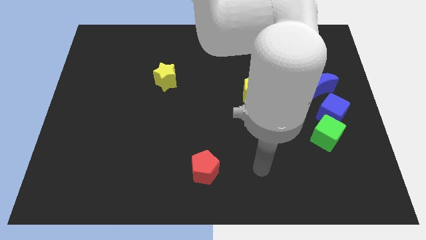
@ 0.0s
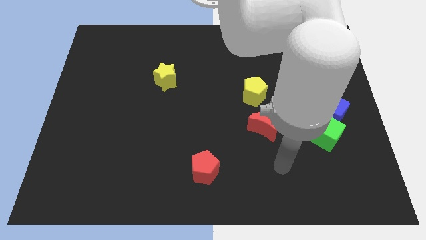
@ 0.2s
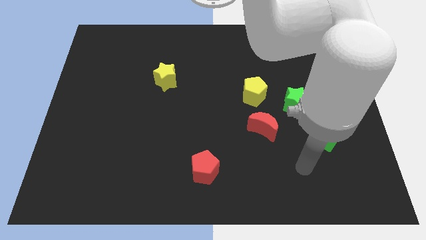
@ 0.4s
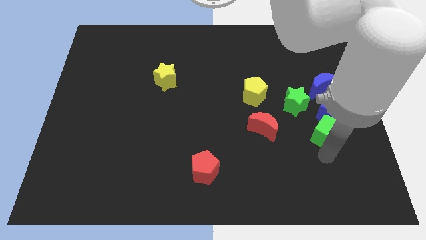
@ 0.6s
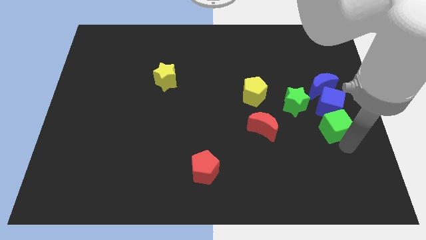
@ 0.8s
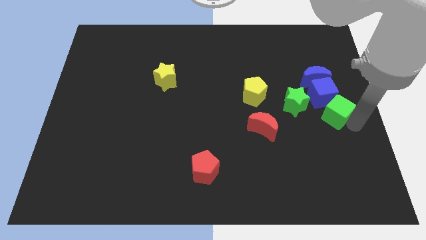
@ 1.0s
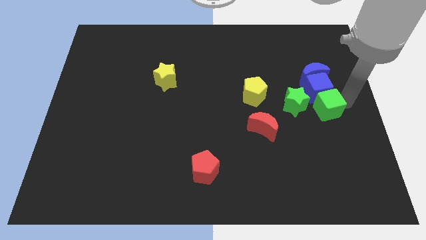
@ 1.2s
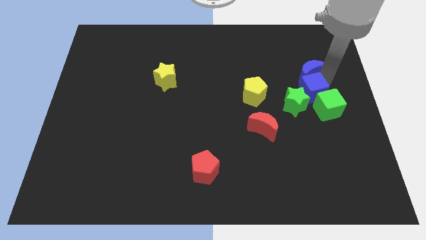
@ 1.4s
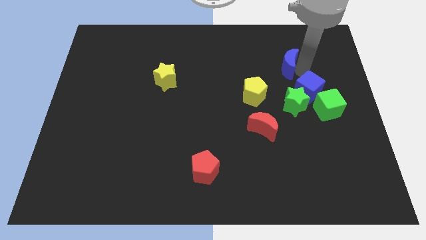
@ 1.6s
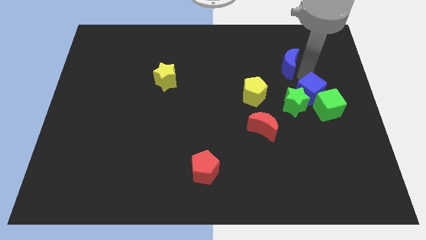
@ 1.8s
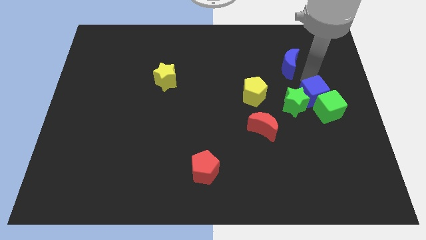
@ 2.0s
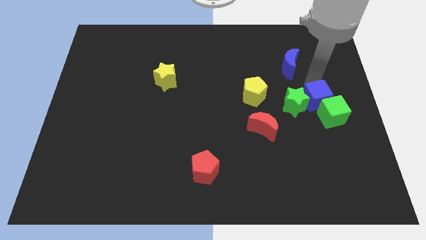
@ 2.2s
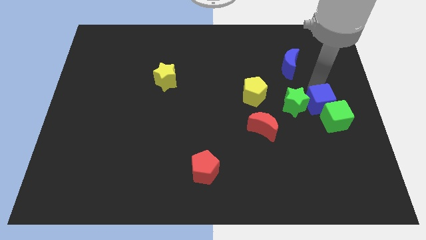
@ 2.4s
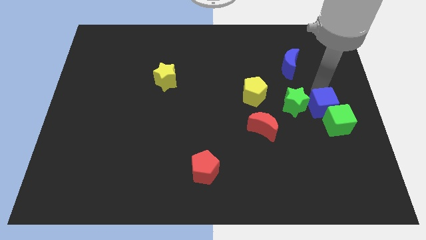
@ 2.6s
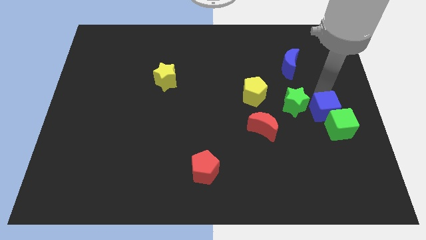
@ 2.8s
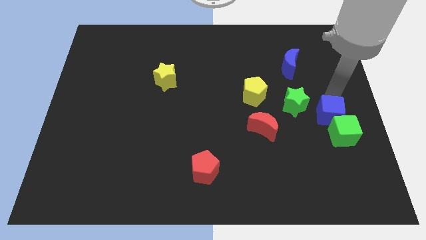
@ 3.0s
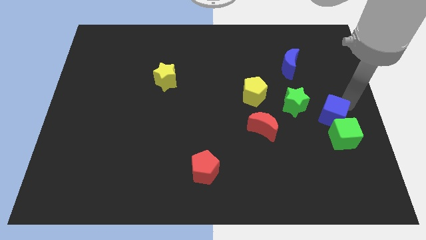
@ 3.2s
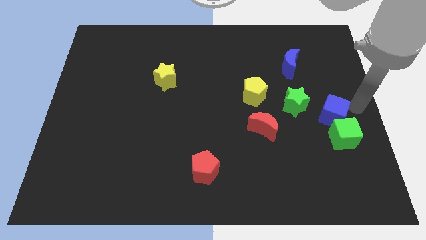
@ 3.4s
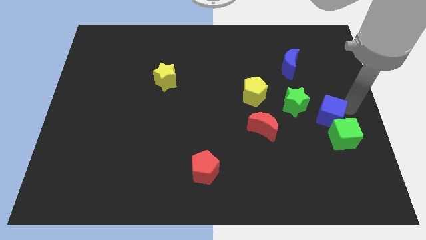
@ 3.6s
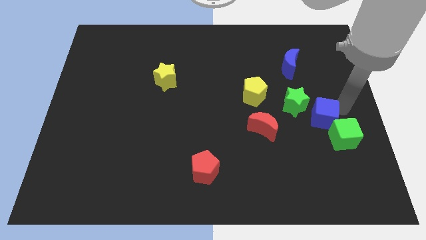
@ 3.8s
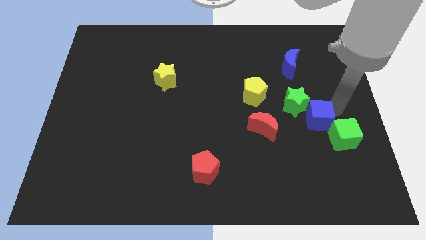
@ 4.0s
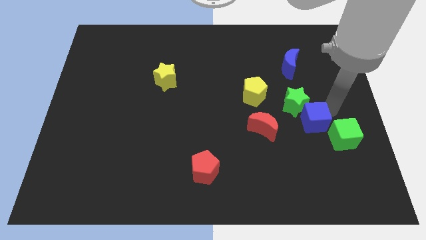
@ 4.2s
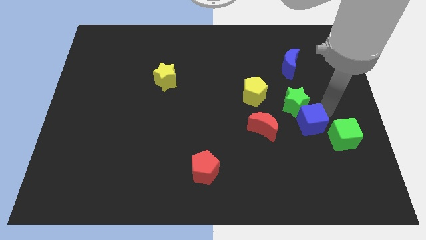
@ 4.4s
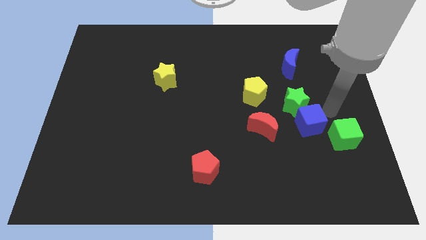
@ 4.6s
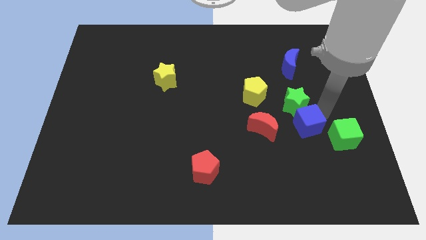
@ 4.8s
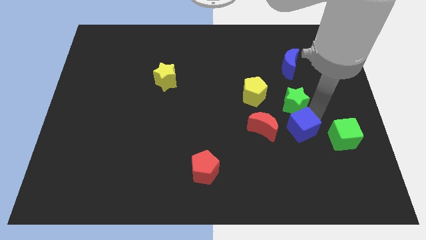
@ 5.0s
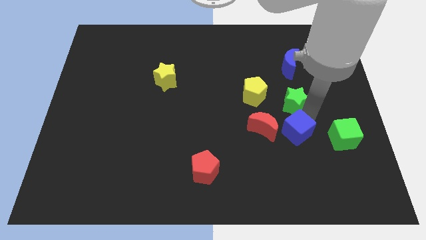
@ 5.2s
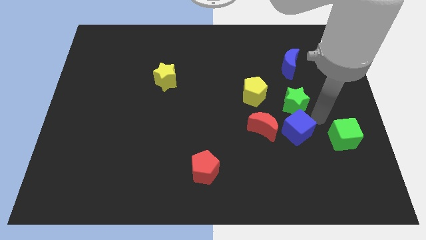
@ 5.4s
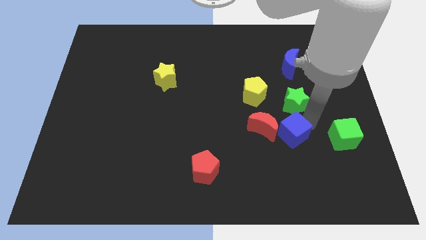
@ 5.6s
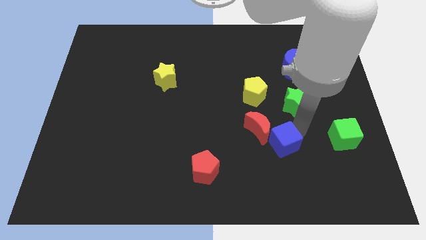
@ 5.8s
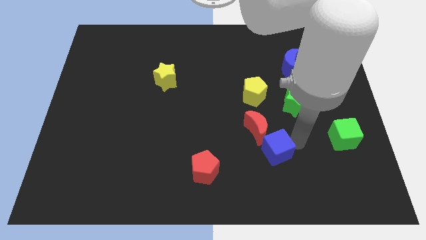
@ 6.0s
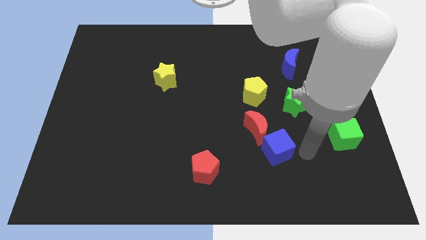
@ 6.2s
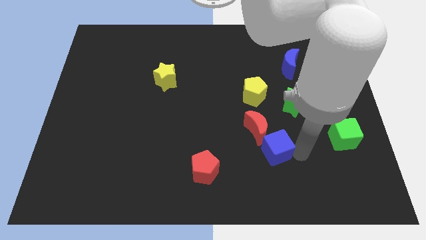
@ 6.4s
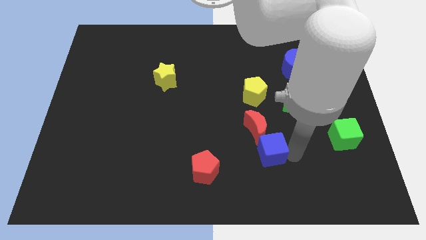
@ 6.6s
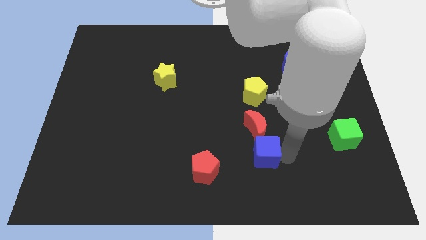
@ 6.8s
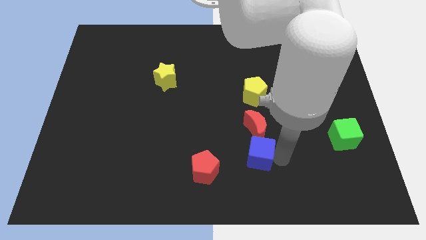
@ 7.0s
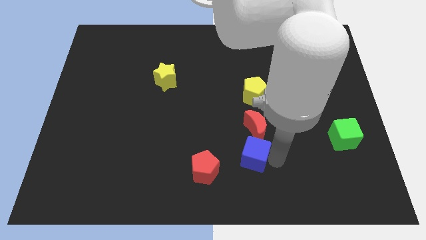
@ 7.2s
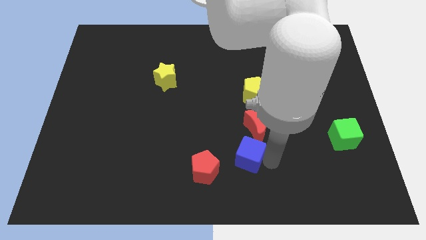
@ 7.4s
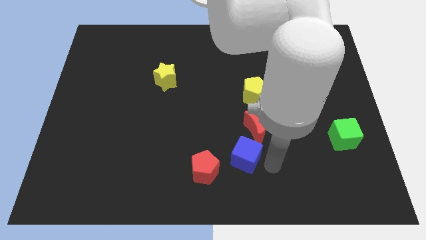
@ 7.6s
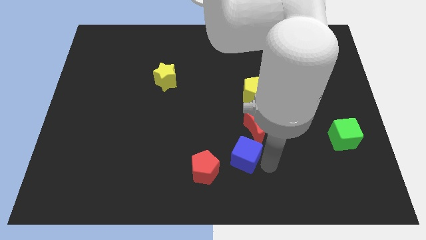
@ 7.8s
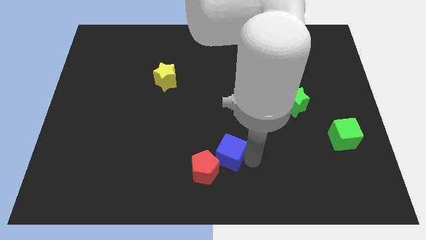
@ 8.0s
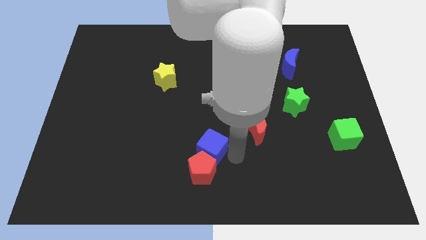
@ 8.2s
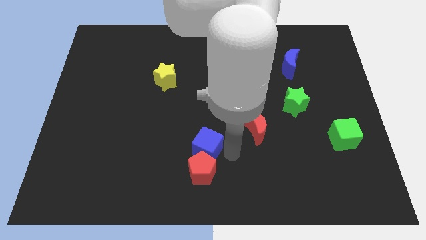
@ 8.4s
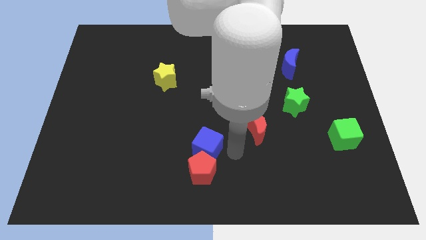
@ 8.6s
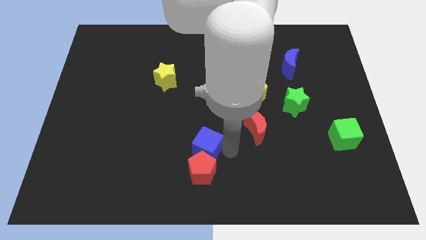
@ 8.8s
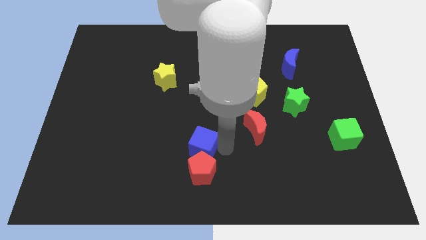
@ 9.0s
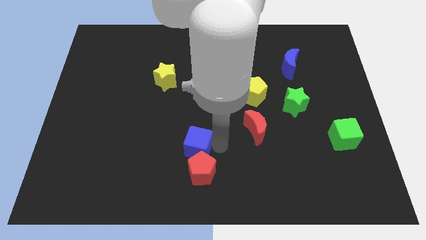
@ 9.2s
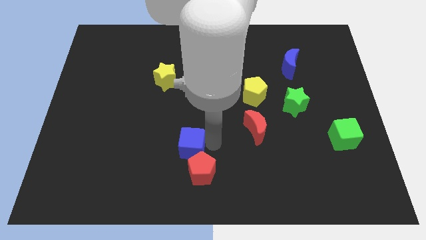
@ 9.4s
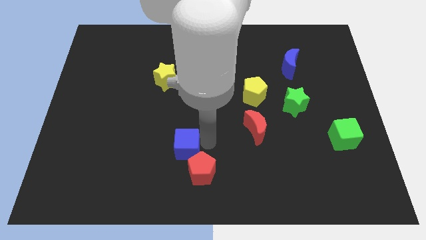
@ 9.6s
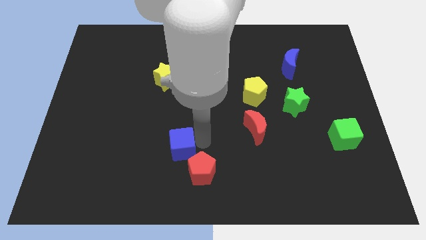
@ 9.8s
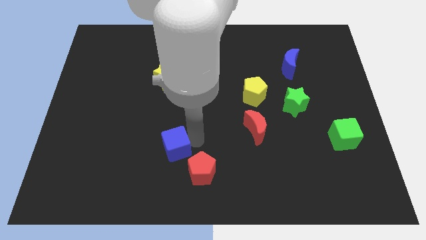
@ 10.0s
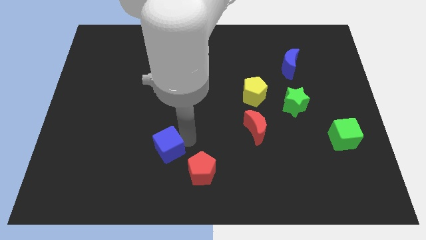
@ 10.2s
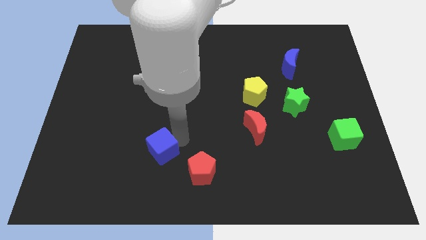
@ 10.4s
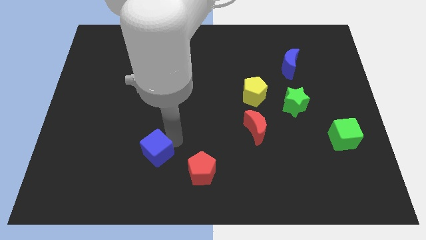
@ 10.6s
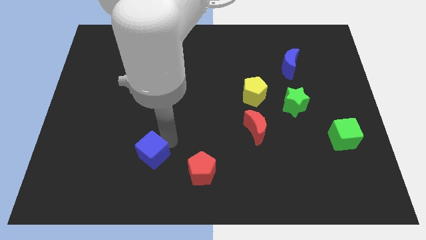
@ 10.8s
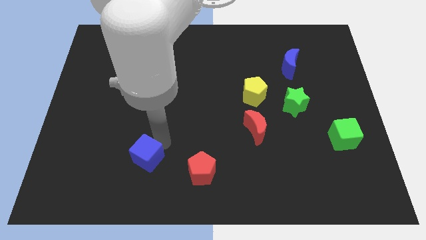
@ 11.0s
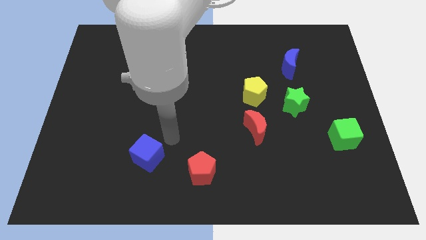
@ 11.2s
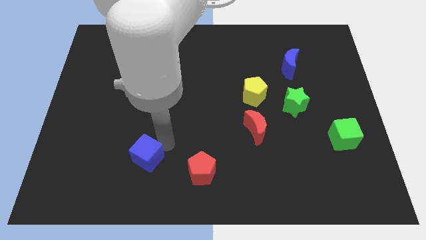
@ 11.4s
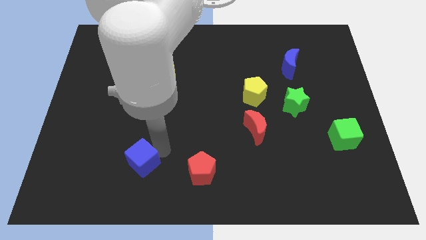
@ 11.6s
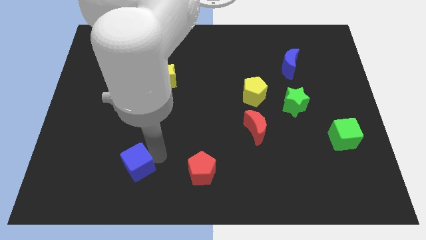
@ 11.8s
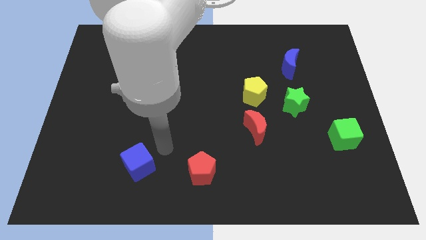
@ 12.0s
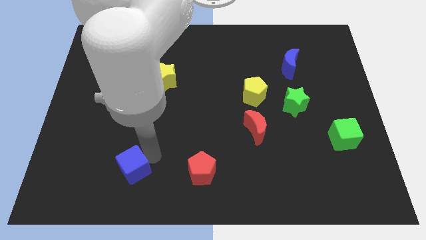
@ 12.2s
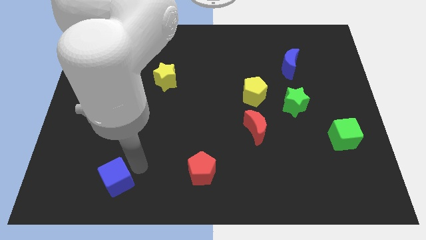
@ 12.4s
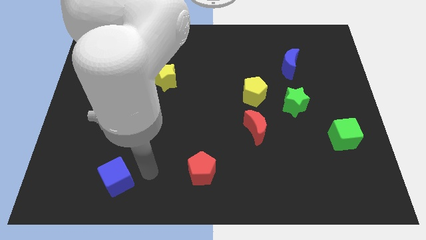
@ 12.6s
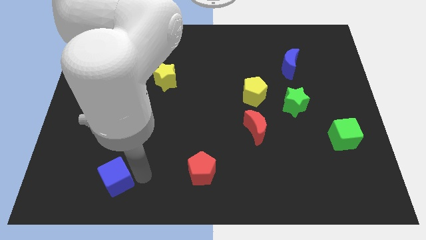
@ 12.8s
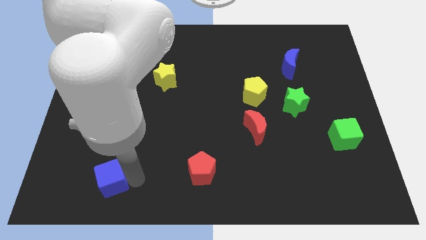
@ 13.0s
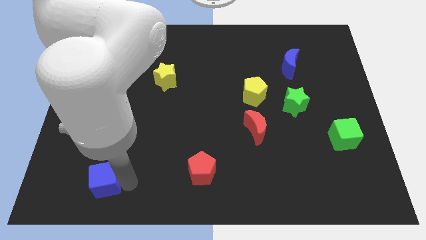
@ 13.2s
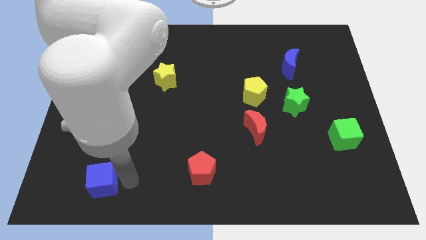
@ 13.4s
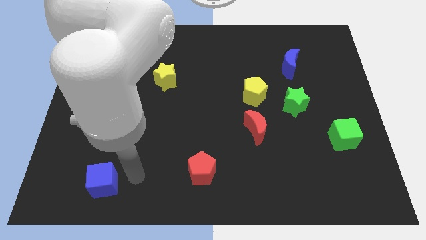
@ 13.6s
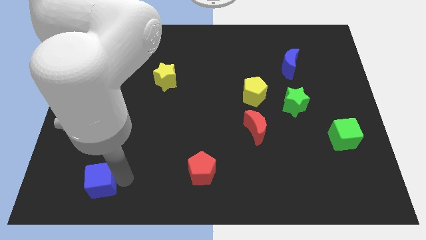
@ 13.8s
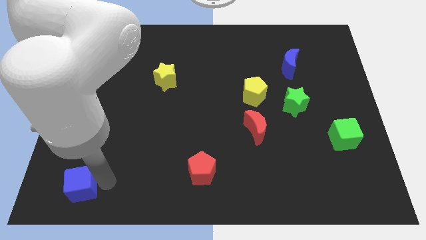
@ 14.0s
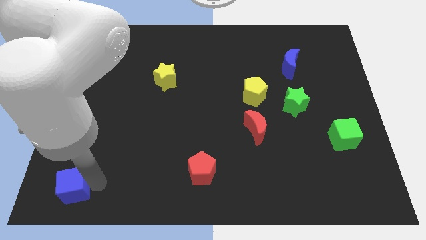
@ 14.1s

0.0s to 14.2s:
slide the blue cube to the bottom left of the board
